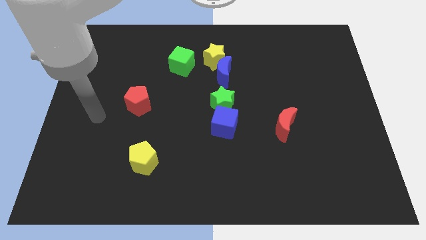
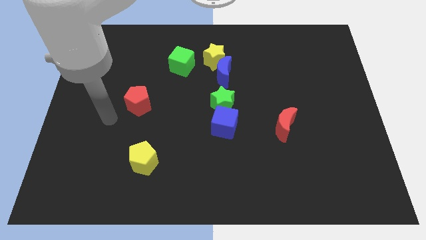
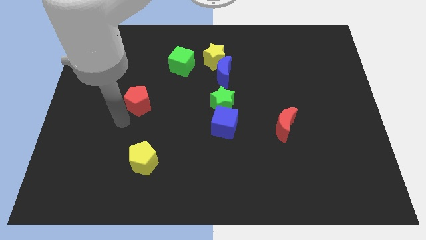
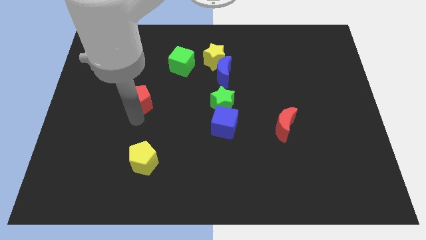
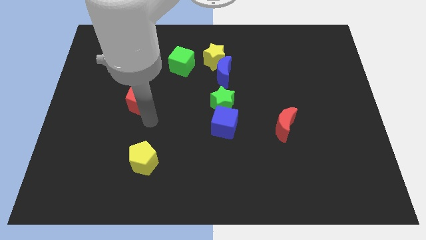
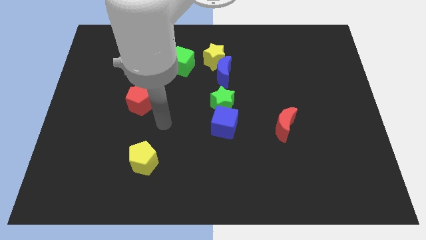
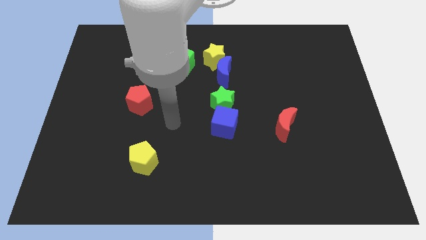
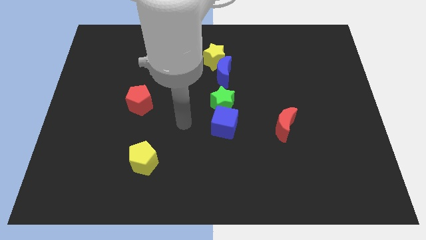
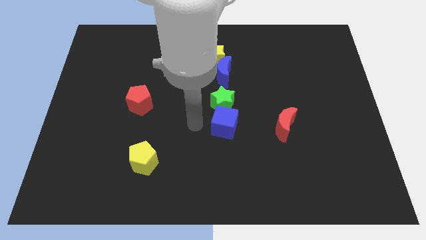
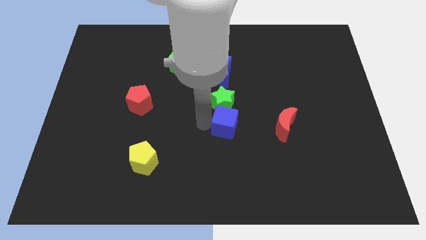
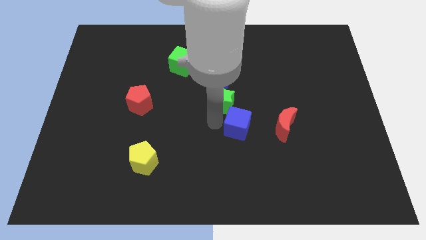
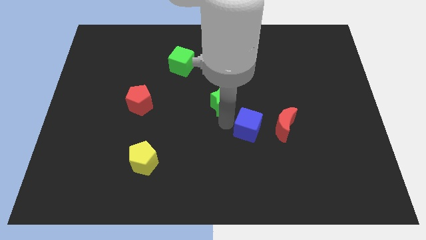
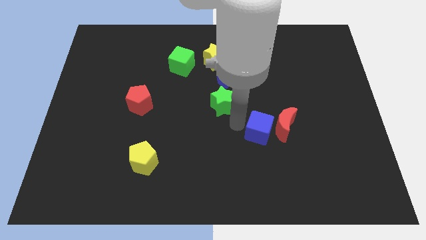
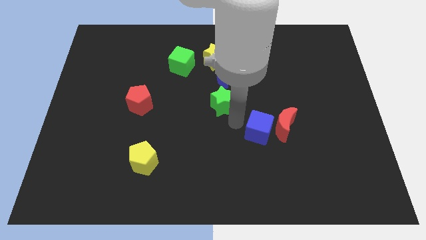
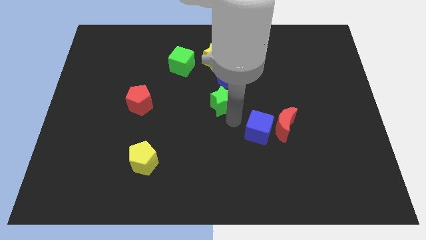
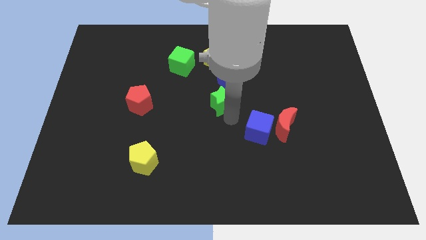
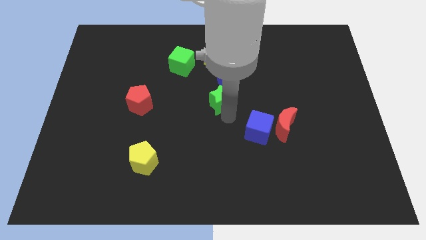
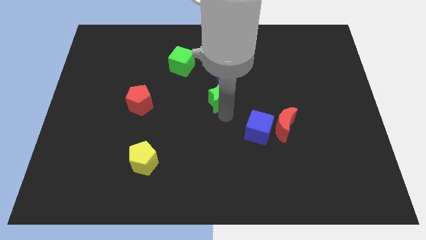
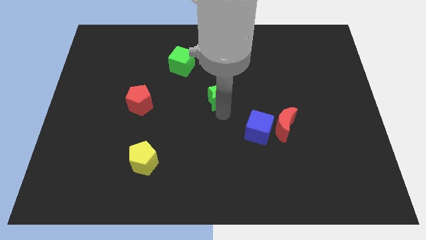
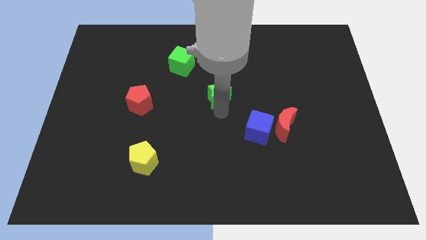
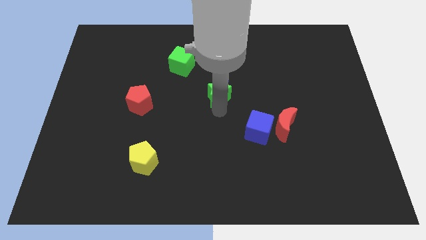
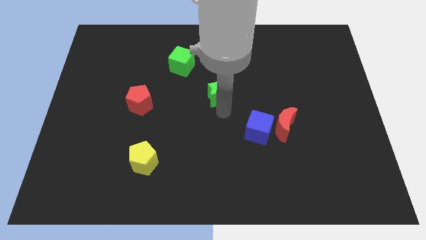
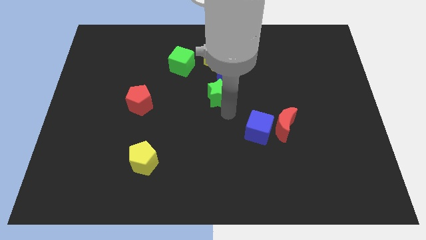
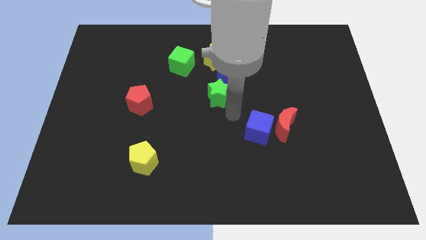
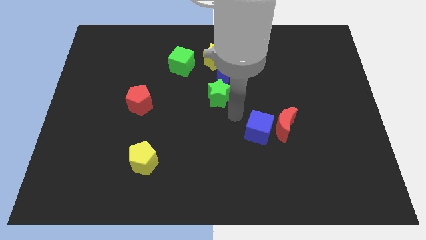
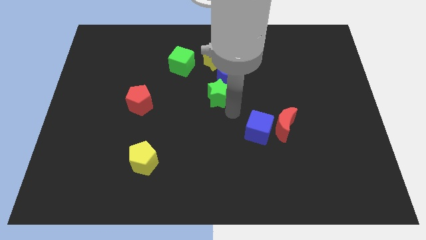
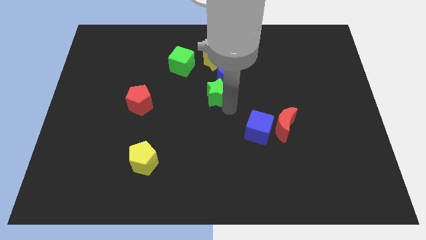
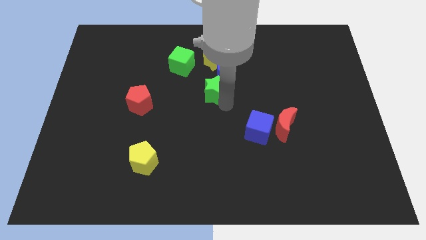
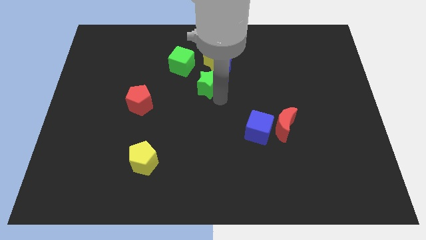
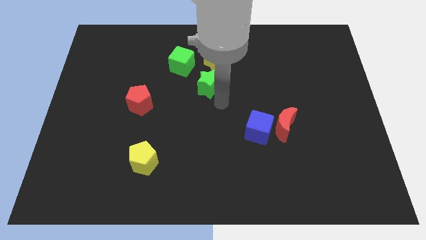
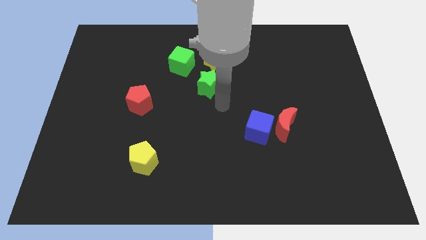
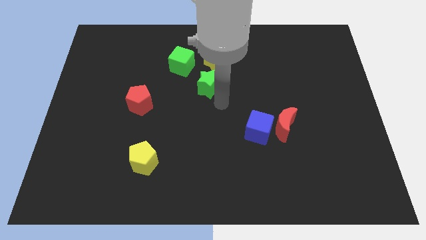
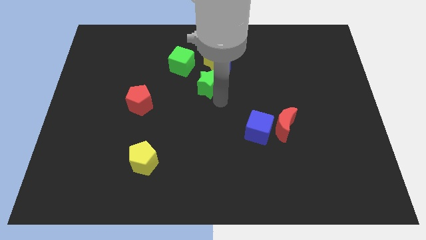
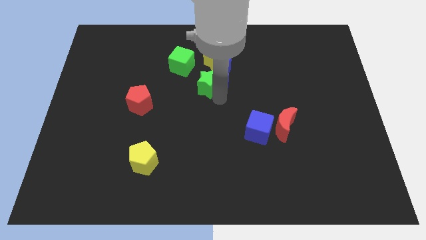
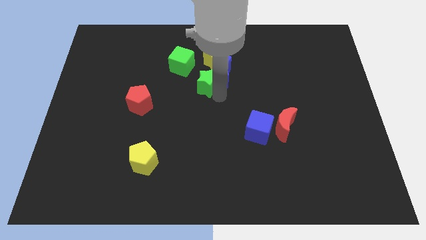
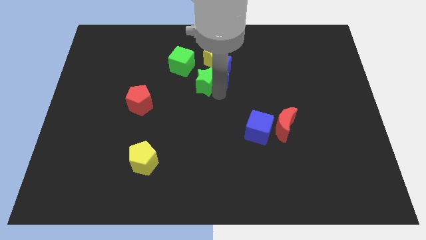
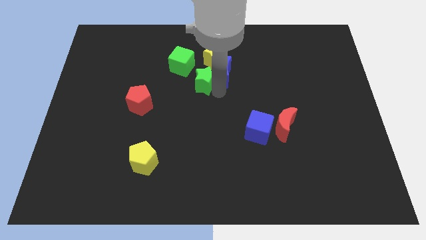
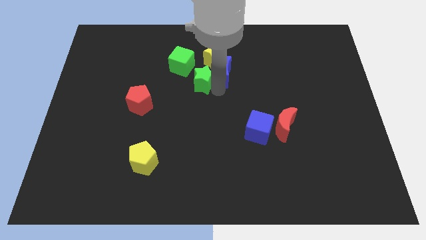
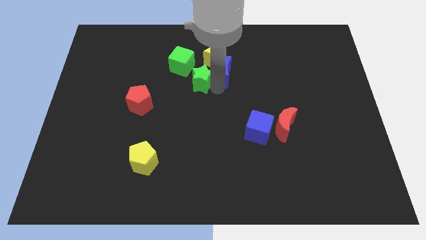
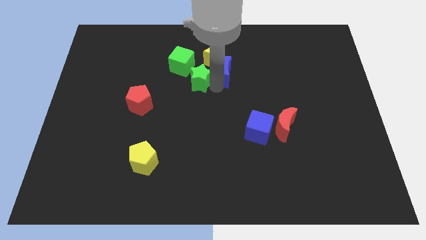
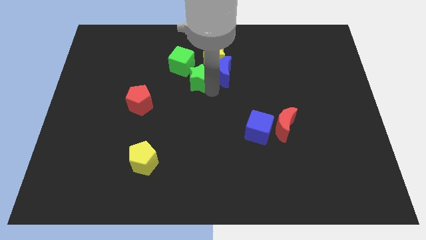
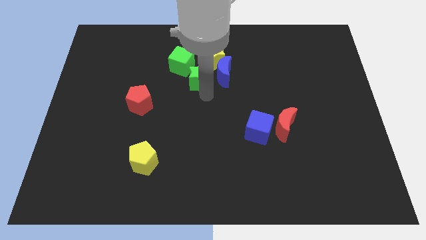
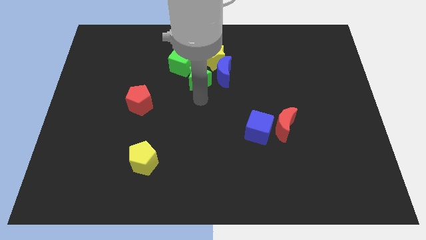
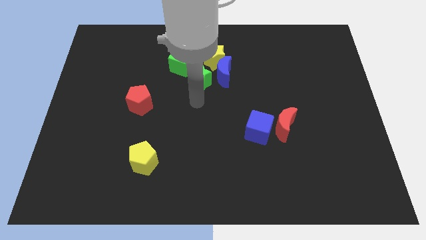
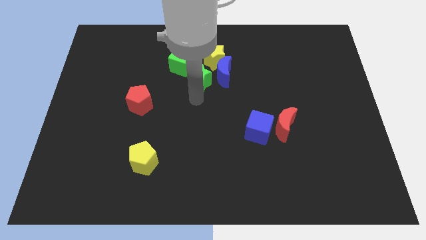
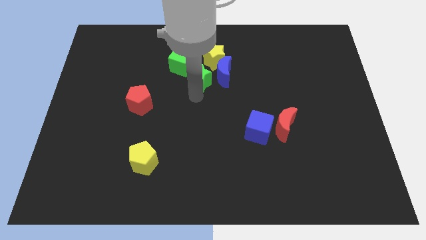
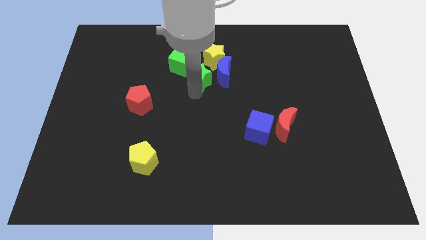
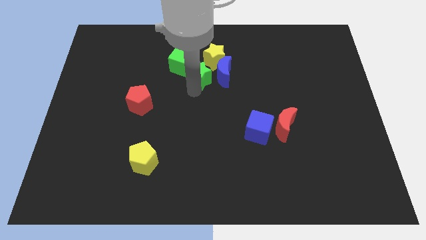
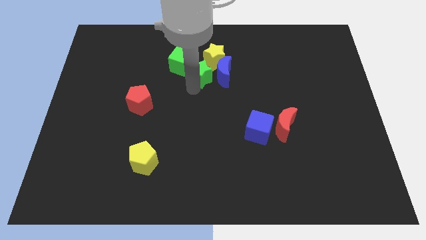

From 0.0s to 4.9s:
put the green star to the top left of the blue moon

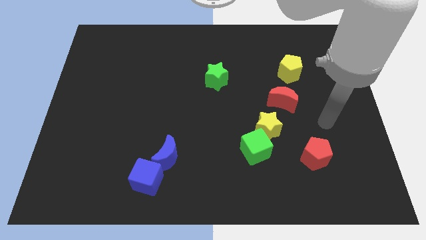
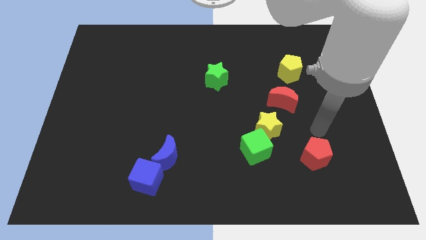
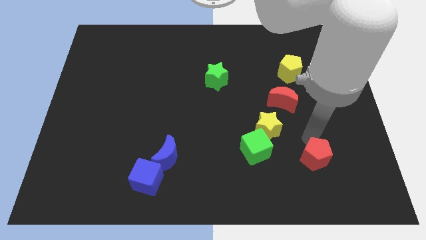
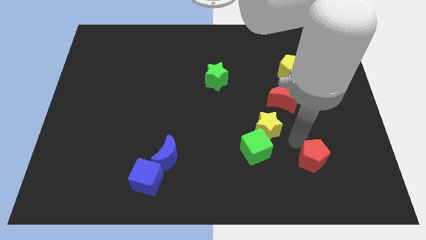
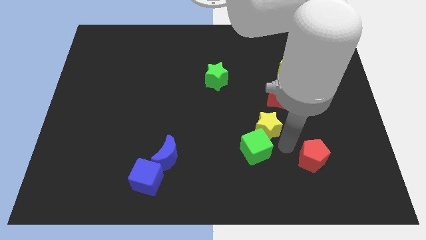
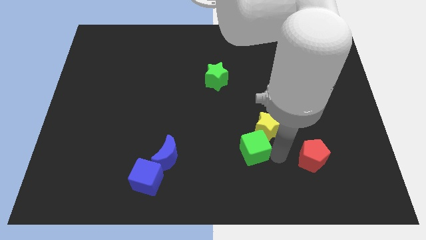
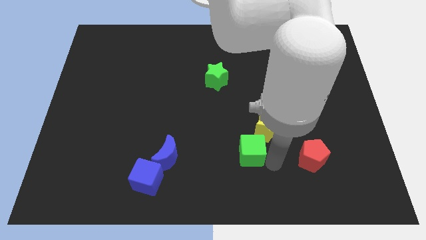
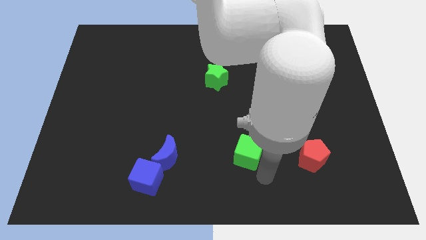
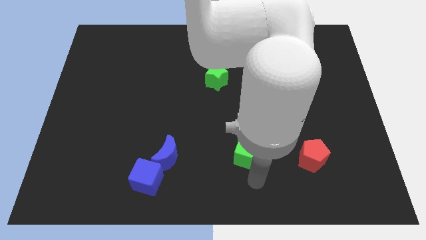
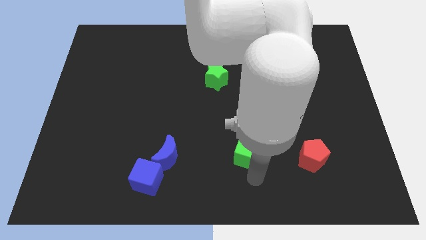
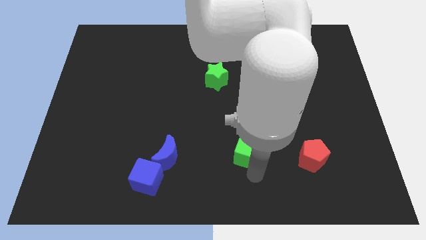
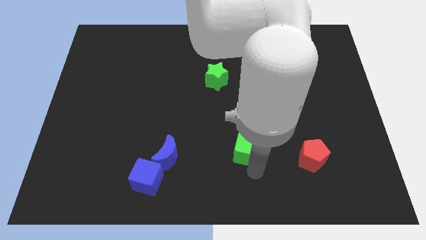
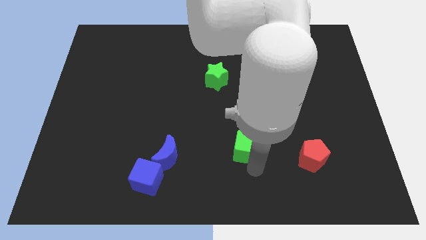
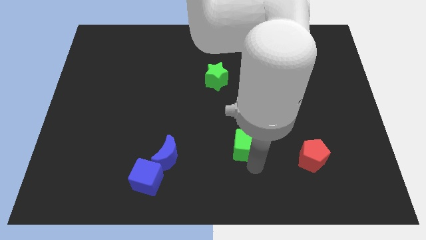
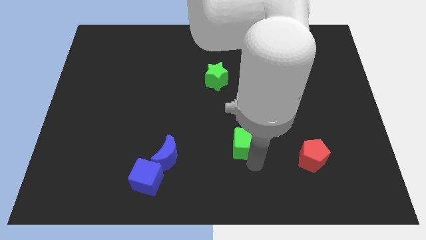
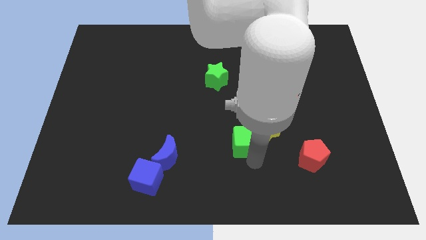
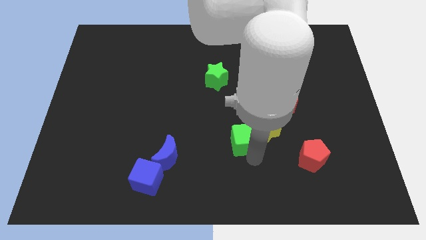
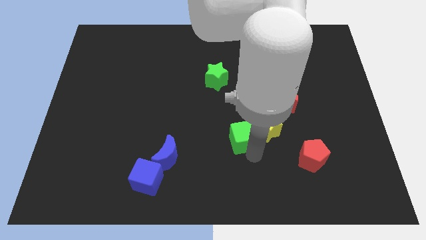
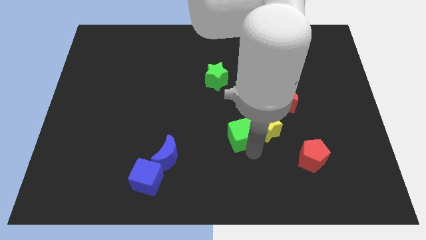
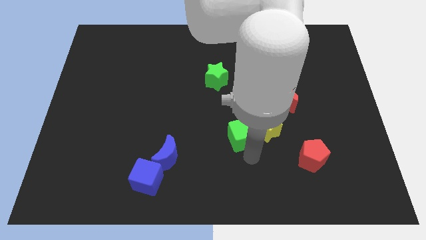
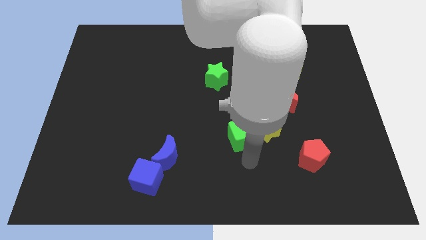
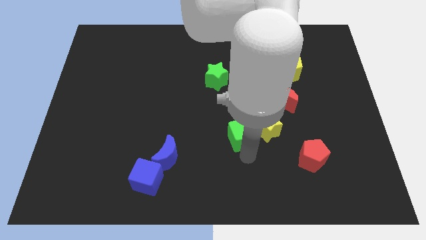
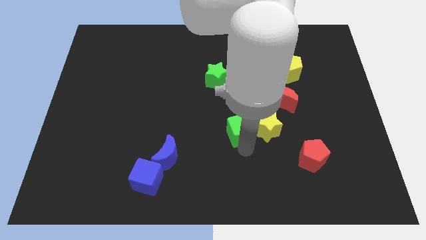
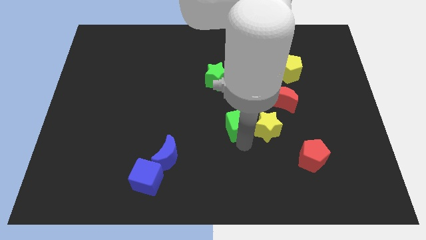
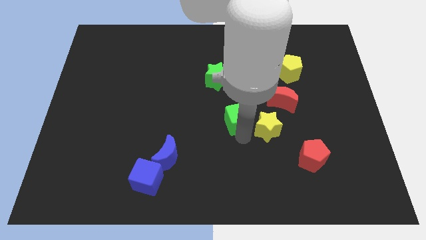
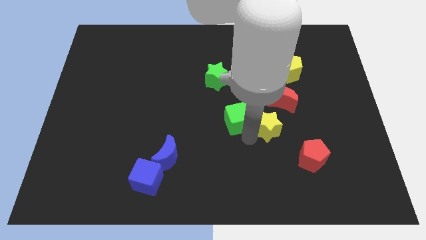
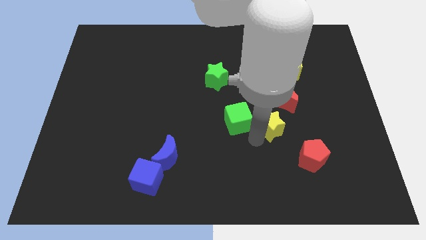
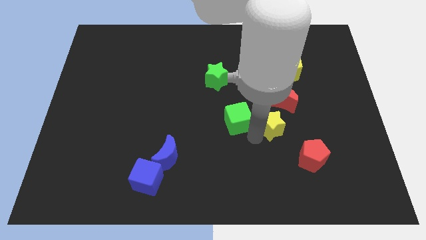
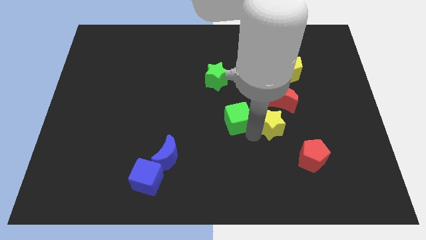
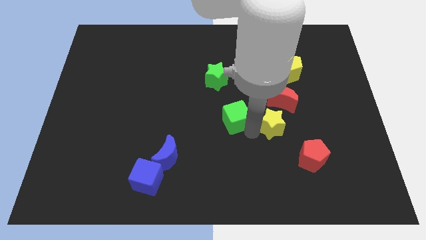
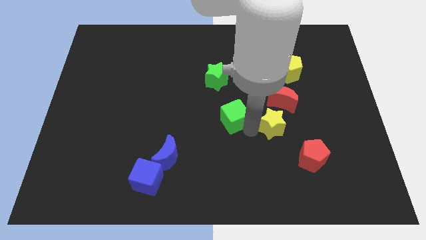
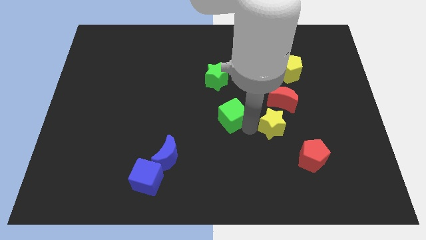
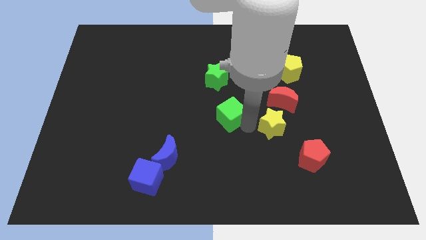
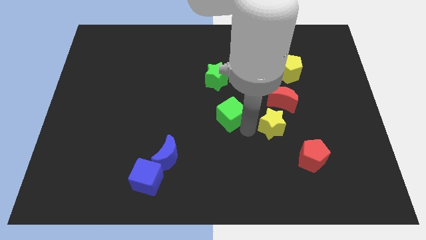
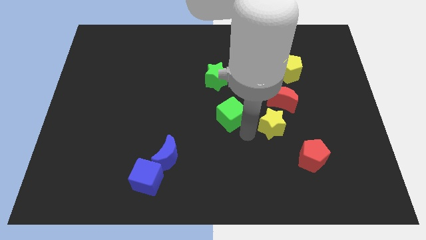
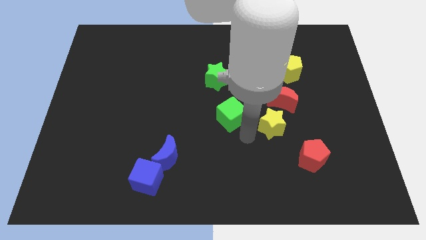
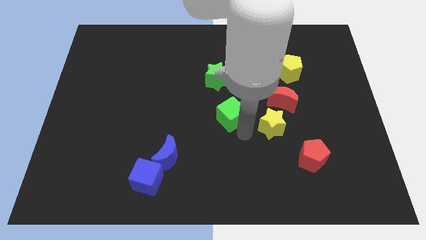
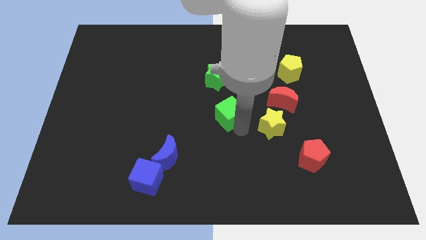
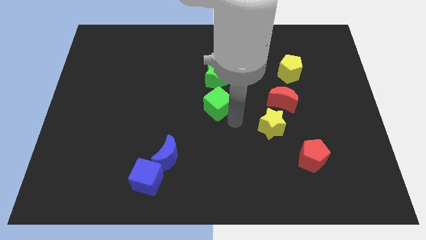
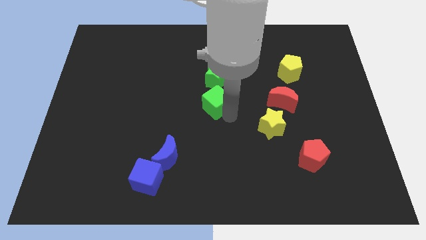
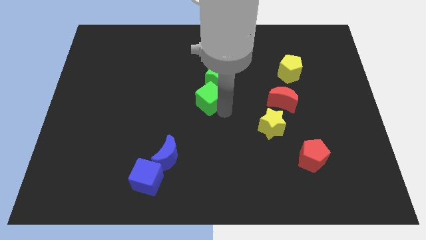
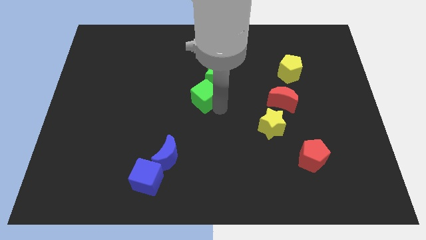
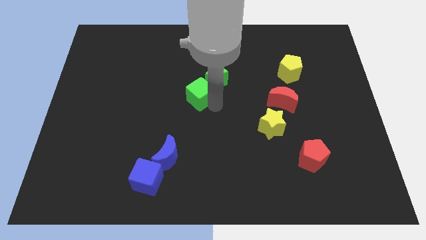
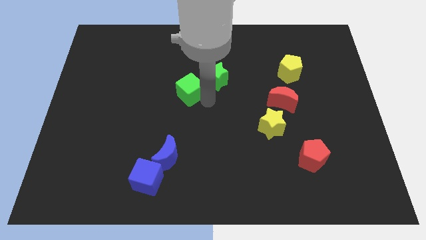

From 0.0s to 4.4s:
push the green cube to the left side of the green star
